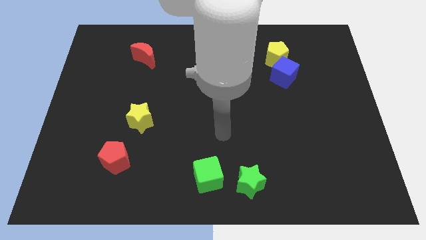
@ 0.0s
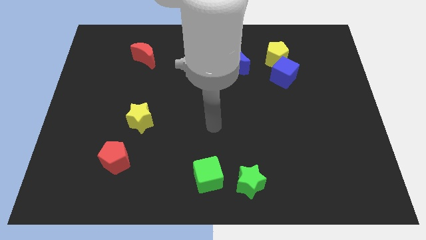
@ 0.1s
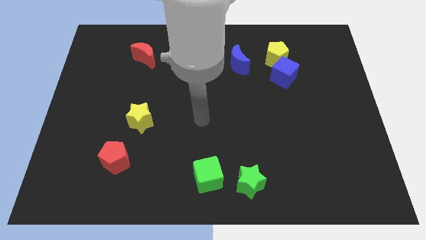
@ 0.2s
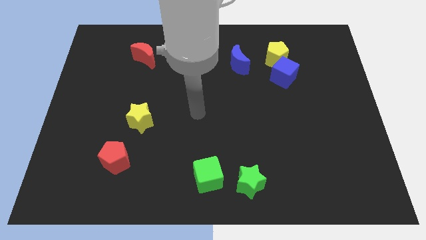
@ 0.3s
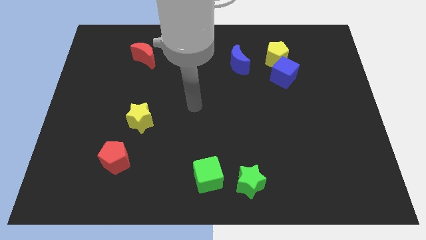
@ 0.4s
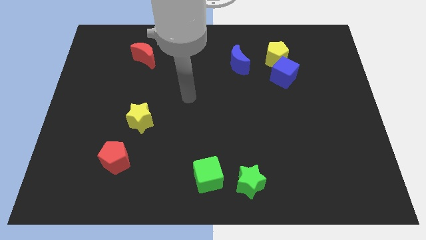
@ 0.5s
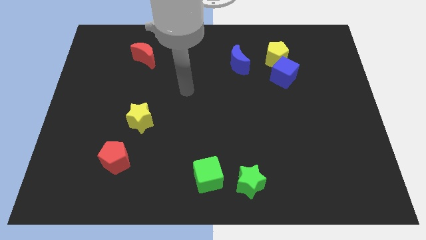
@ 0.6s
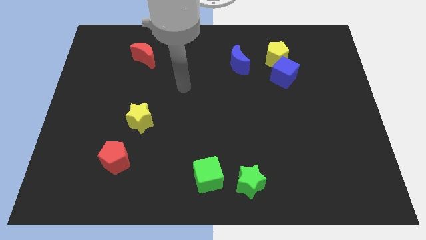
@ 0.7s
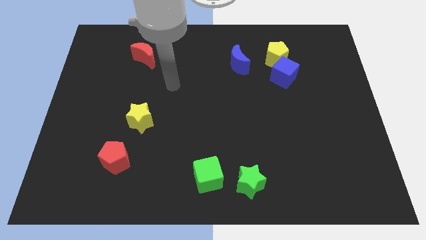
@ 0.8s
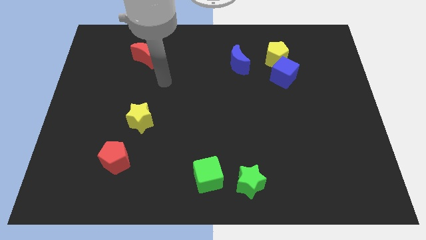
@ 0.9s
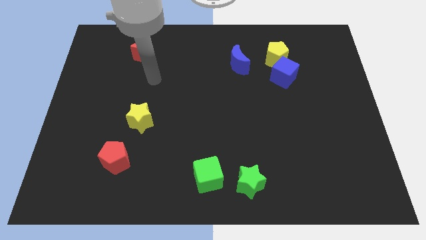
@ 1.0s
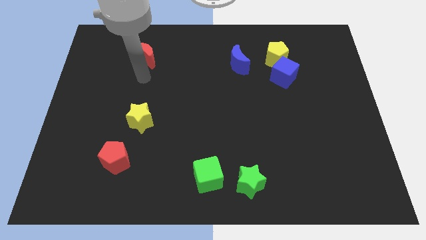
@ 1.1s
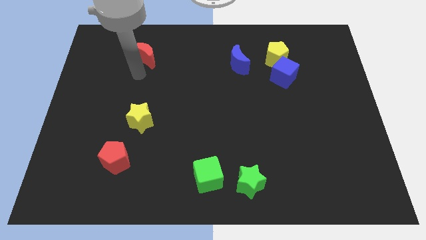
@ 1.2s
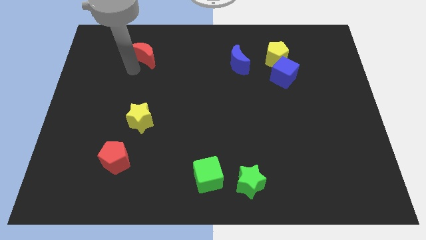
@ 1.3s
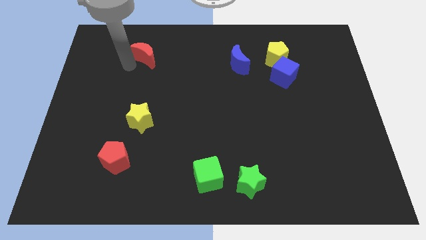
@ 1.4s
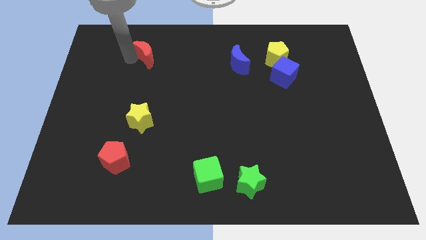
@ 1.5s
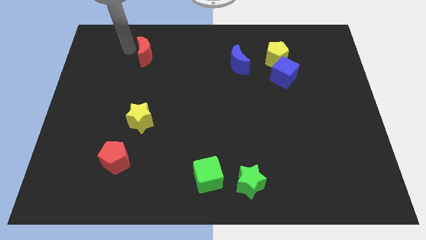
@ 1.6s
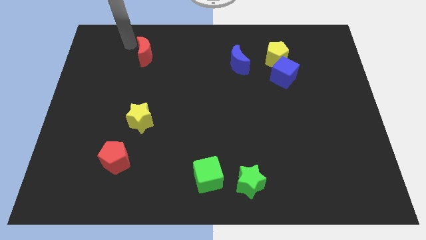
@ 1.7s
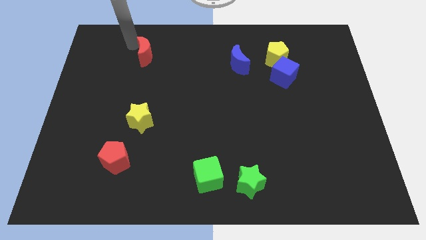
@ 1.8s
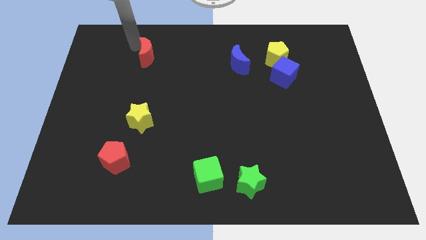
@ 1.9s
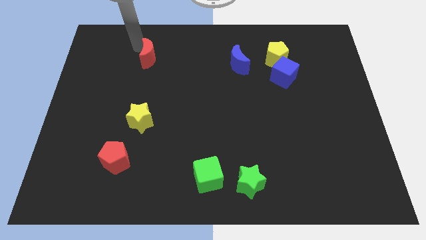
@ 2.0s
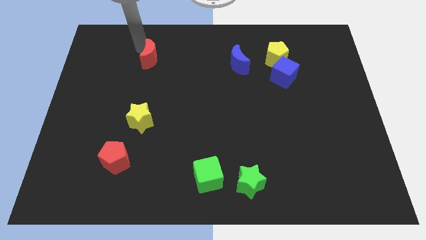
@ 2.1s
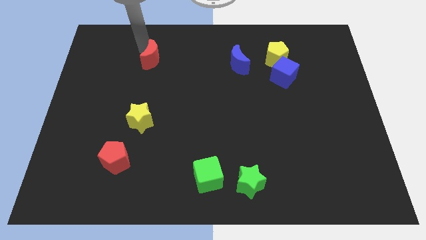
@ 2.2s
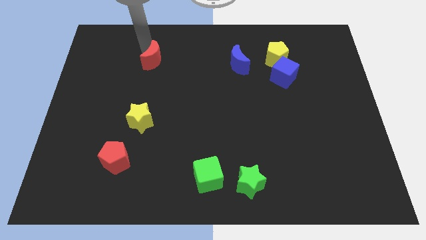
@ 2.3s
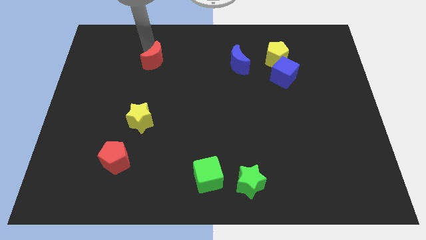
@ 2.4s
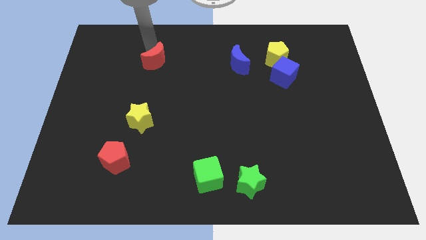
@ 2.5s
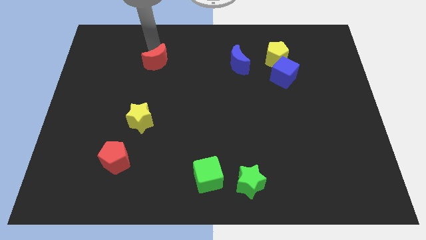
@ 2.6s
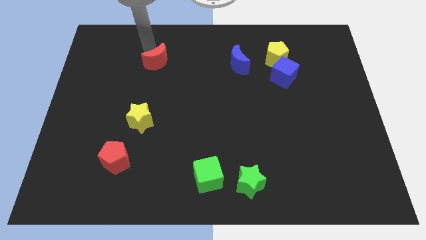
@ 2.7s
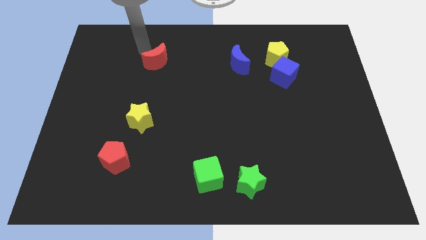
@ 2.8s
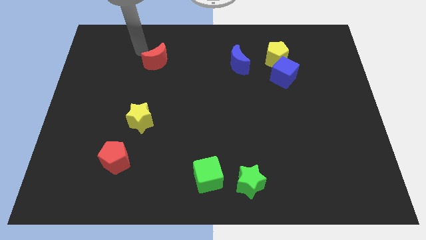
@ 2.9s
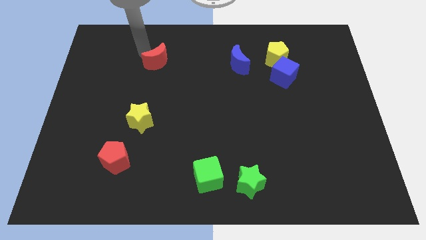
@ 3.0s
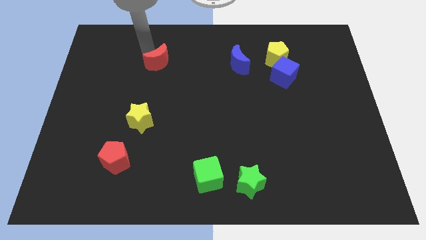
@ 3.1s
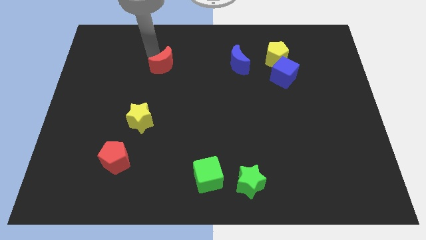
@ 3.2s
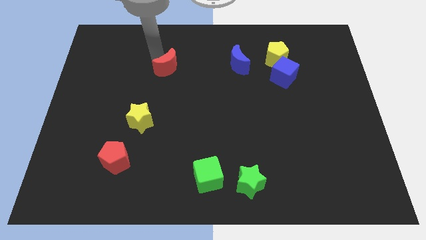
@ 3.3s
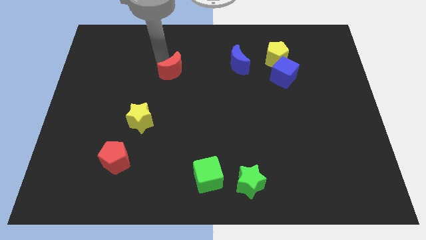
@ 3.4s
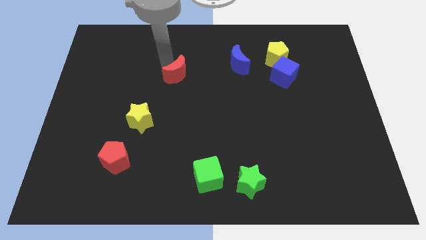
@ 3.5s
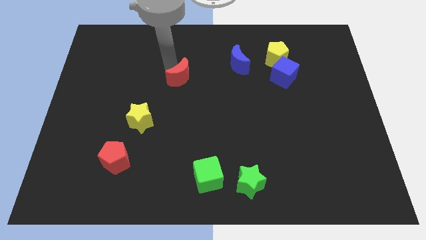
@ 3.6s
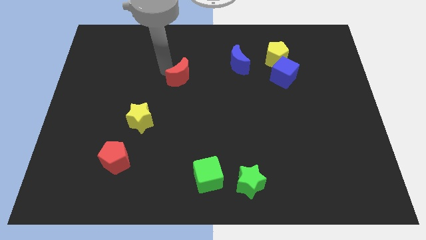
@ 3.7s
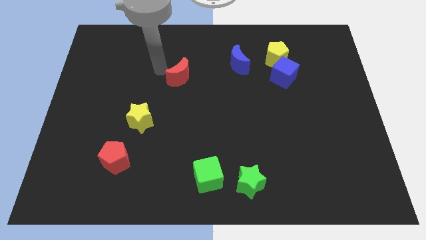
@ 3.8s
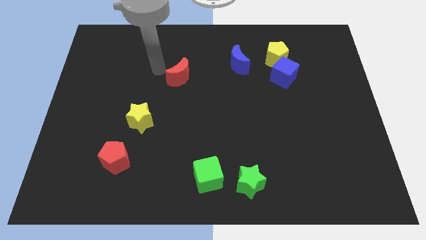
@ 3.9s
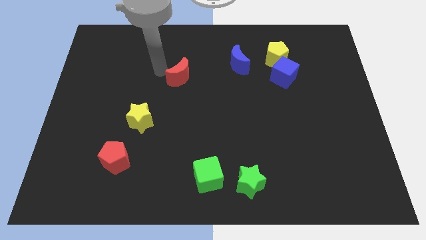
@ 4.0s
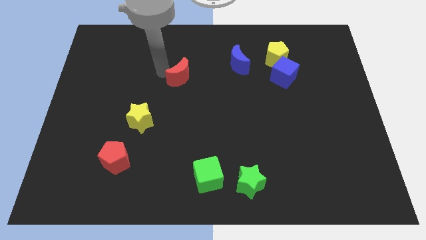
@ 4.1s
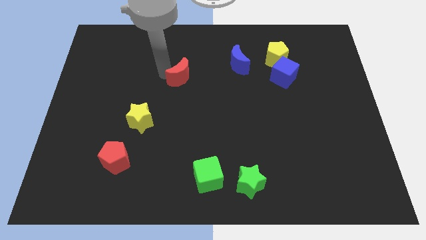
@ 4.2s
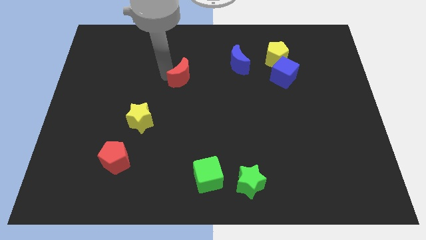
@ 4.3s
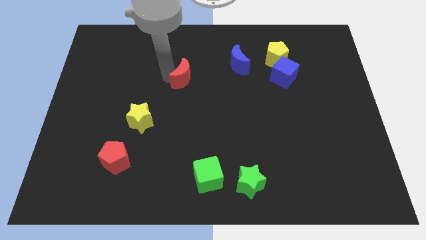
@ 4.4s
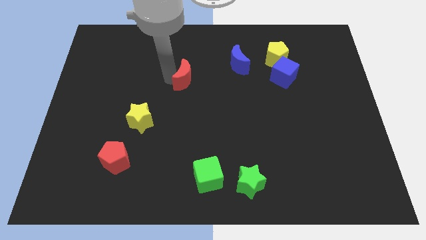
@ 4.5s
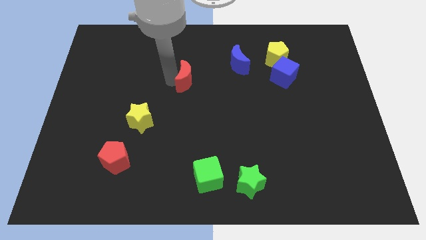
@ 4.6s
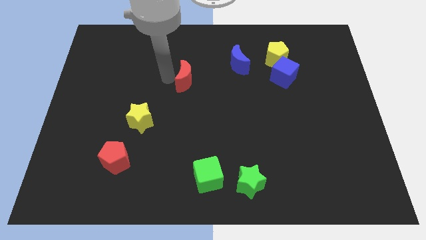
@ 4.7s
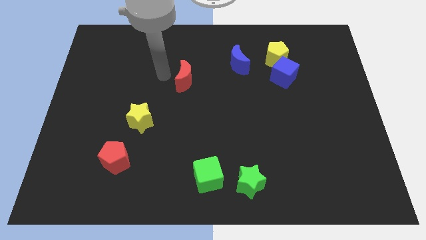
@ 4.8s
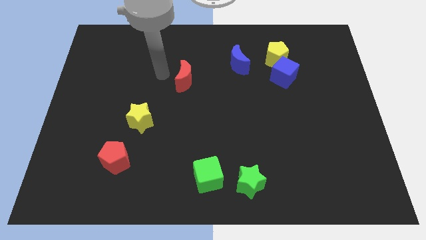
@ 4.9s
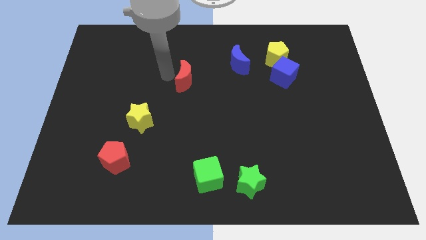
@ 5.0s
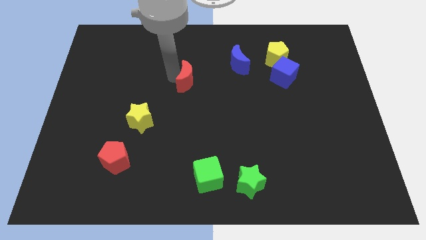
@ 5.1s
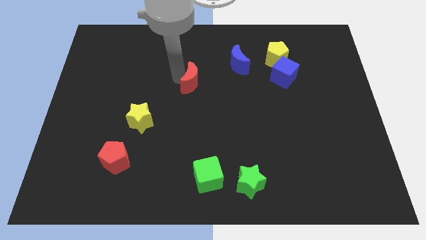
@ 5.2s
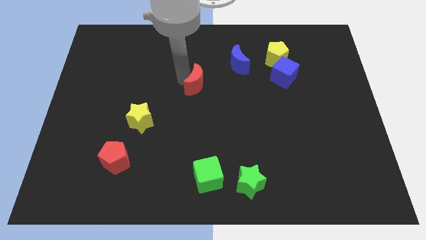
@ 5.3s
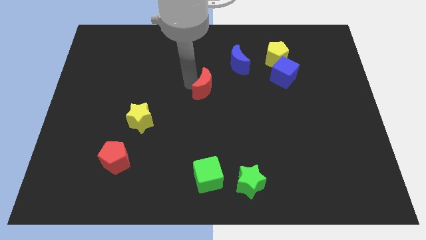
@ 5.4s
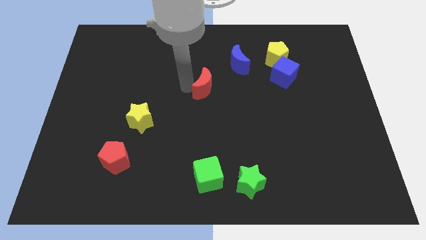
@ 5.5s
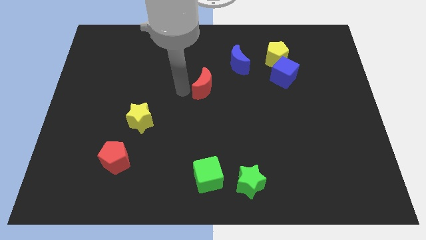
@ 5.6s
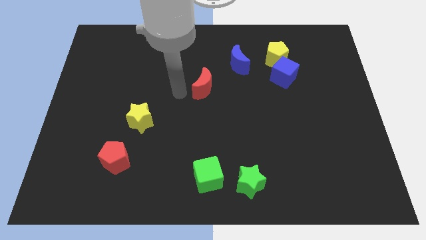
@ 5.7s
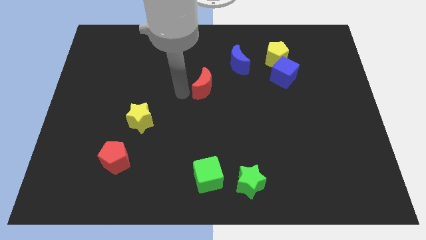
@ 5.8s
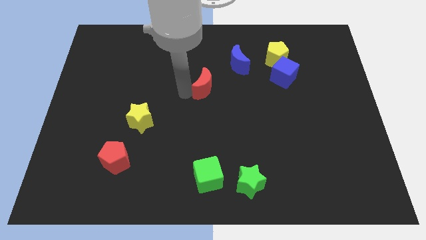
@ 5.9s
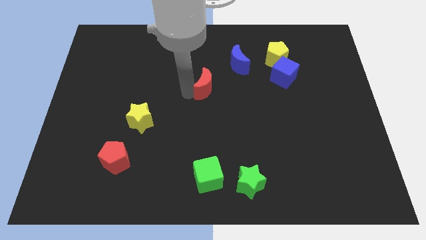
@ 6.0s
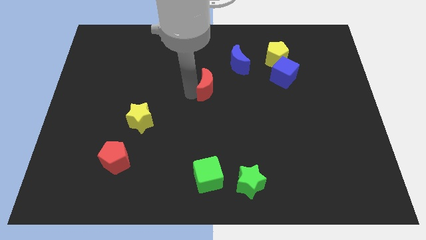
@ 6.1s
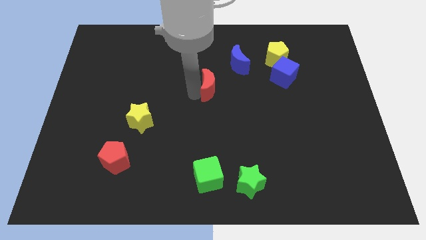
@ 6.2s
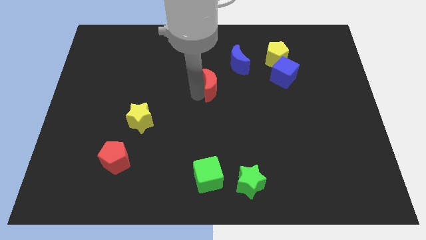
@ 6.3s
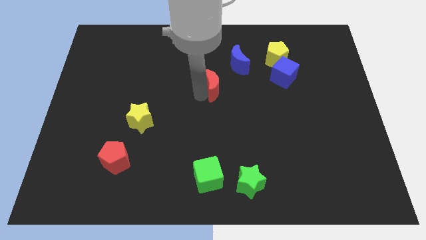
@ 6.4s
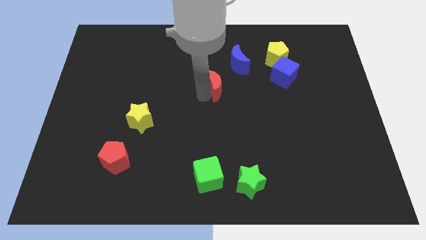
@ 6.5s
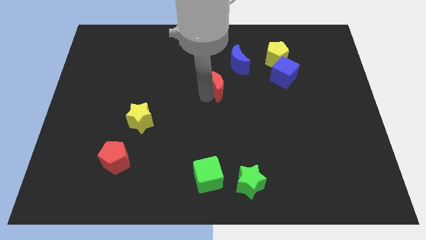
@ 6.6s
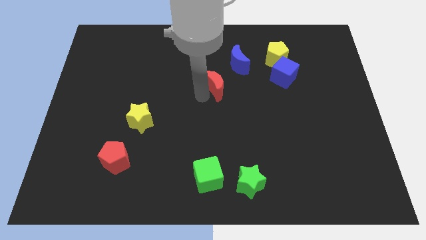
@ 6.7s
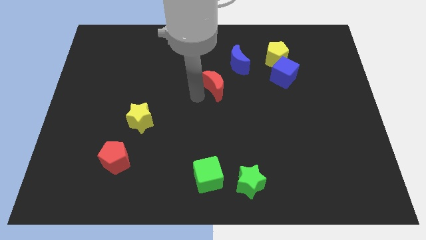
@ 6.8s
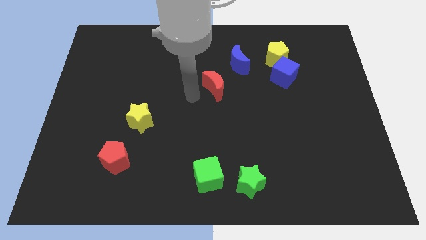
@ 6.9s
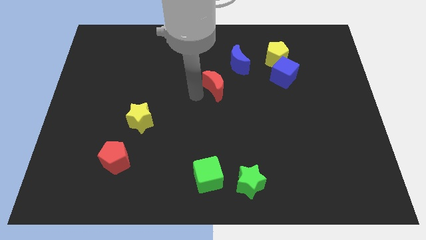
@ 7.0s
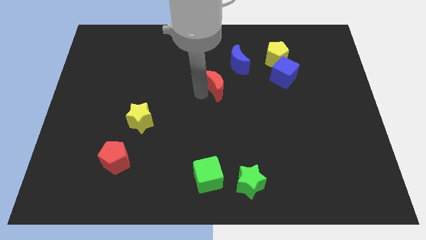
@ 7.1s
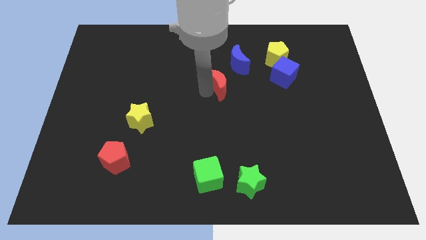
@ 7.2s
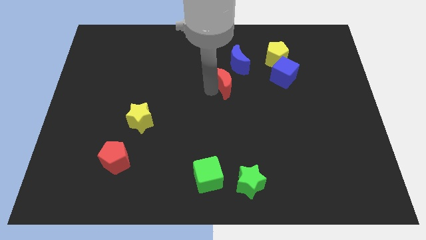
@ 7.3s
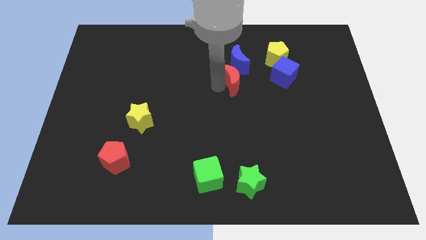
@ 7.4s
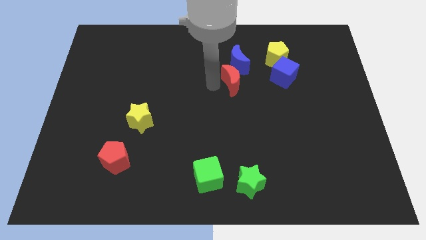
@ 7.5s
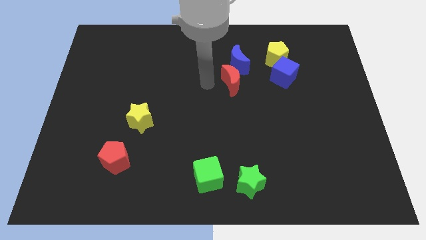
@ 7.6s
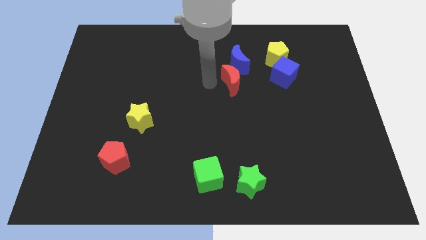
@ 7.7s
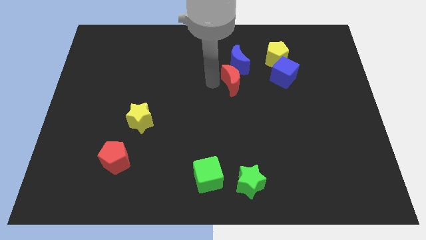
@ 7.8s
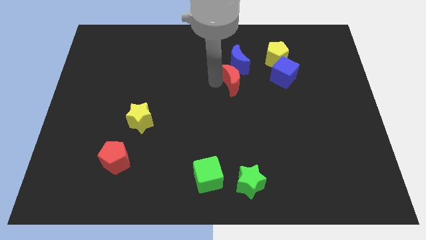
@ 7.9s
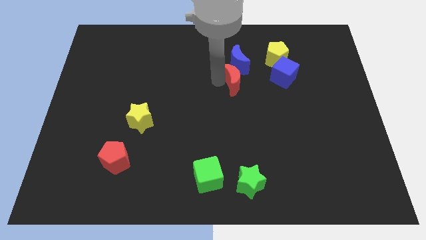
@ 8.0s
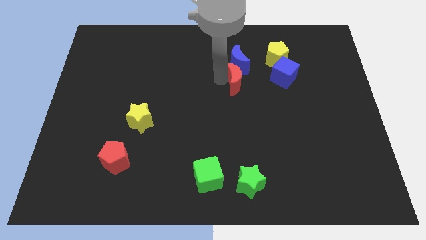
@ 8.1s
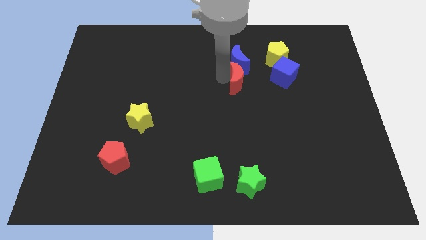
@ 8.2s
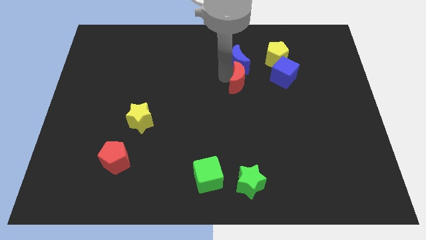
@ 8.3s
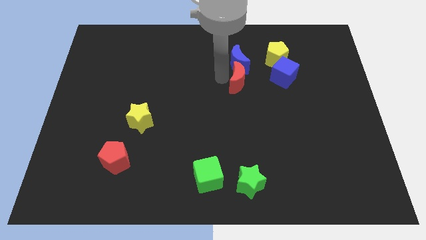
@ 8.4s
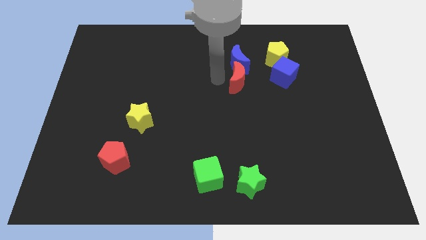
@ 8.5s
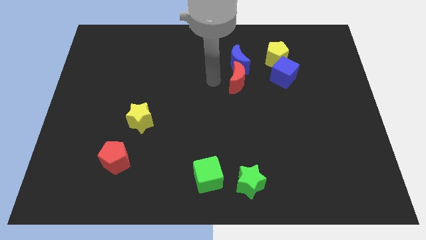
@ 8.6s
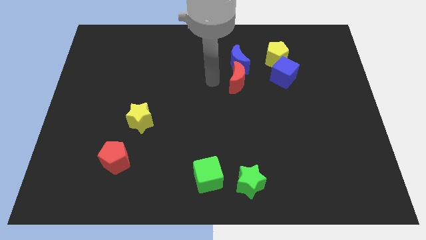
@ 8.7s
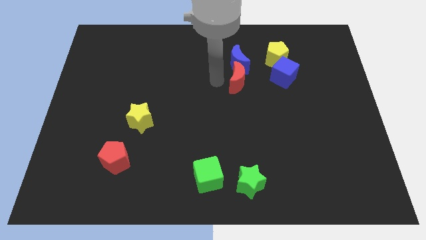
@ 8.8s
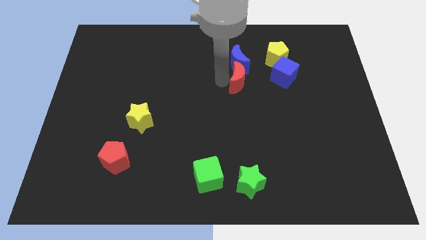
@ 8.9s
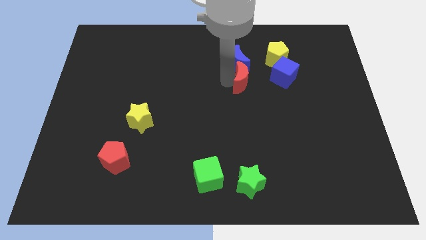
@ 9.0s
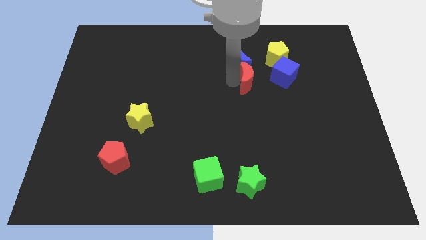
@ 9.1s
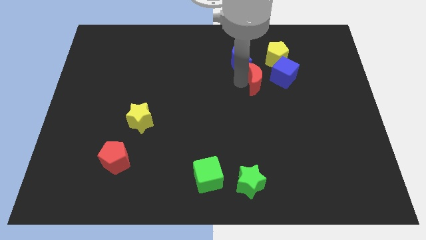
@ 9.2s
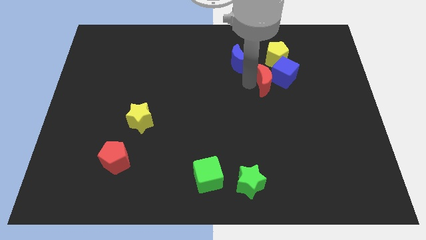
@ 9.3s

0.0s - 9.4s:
put the red moon towards the blue cube
